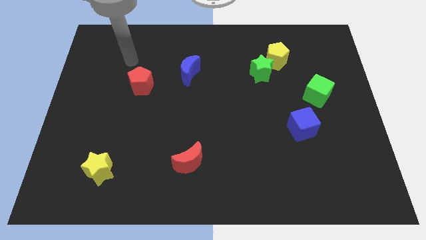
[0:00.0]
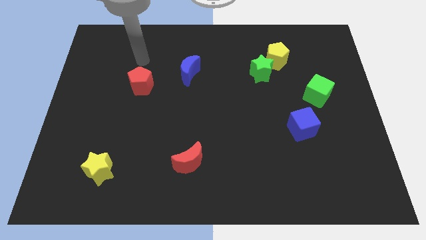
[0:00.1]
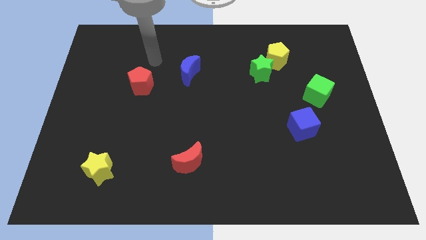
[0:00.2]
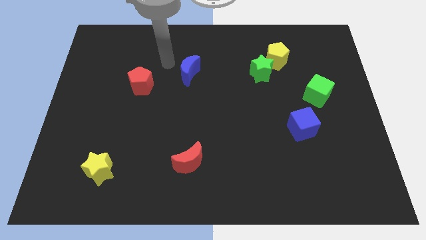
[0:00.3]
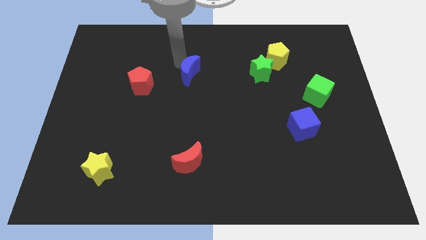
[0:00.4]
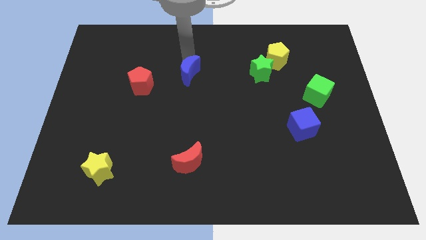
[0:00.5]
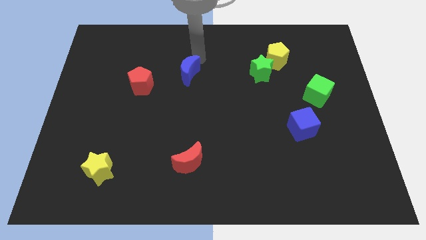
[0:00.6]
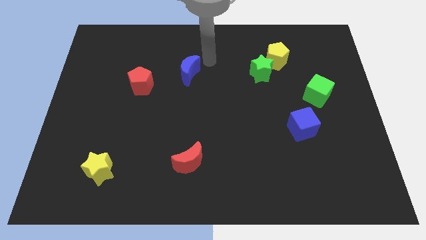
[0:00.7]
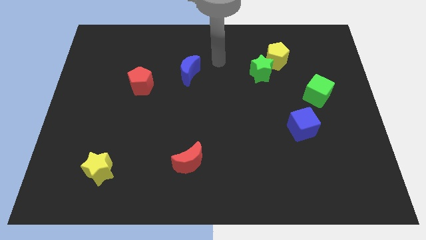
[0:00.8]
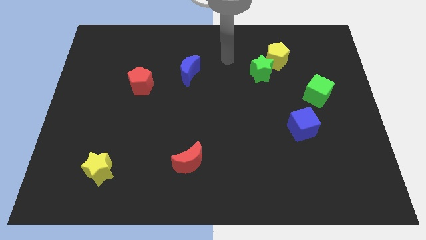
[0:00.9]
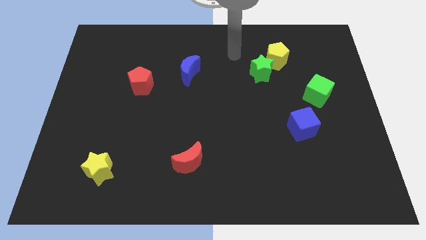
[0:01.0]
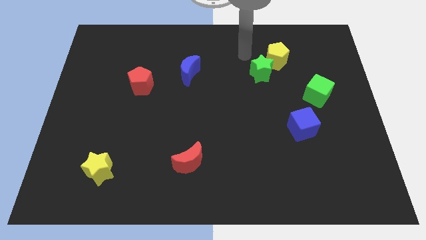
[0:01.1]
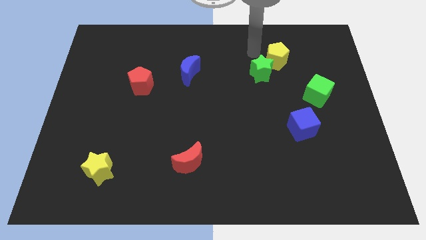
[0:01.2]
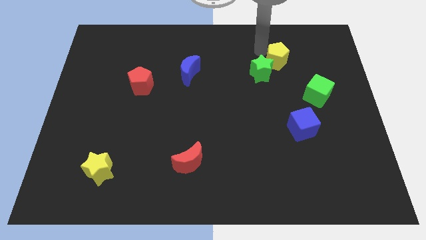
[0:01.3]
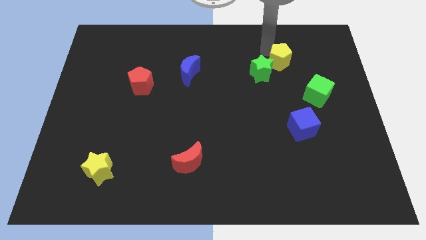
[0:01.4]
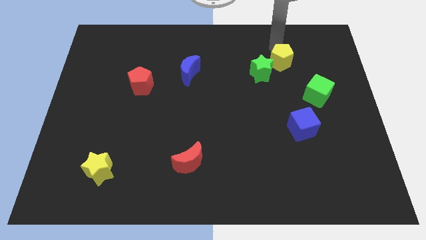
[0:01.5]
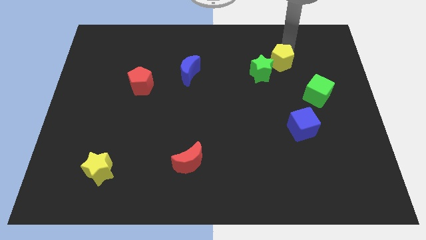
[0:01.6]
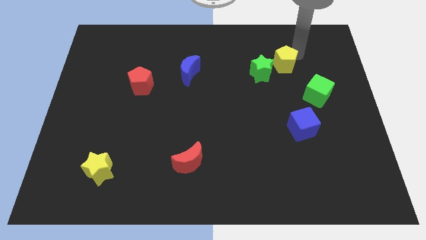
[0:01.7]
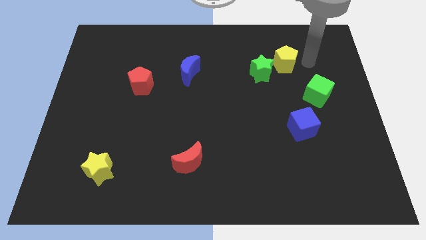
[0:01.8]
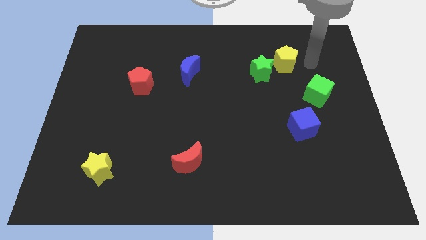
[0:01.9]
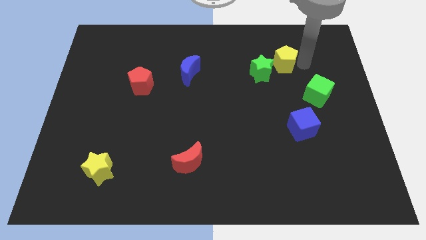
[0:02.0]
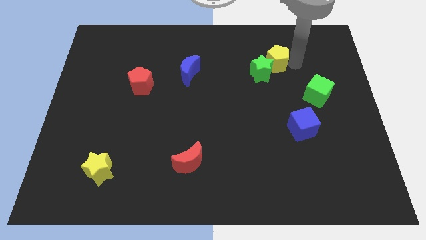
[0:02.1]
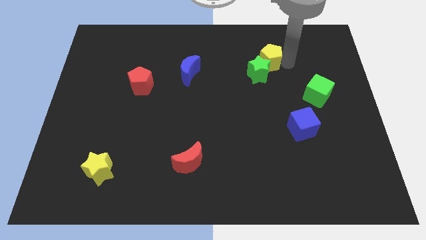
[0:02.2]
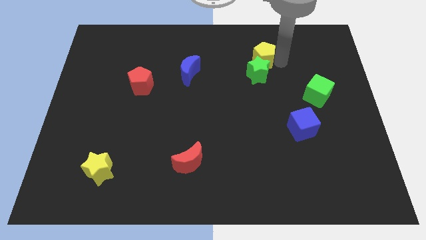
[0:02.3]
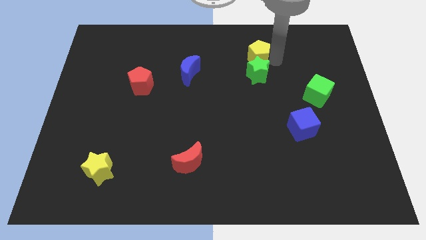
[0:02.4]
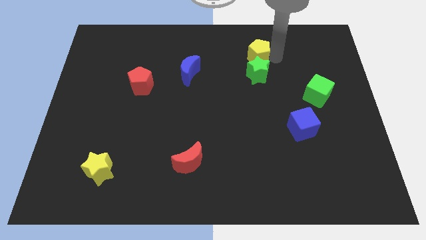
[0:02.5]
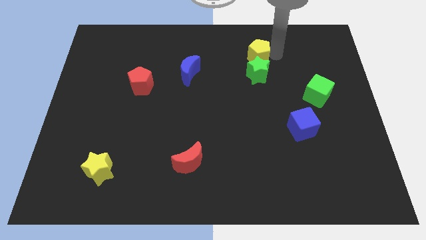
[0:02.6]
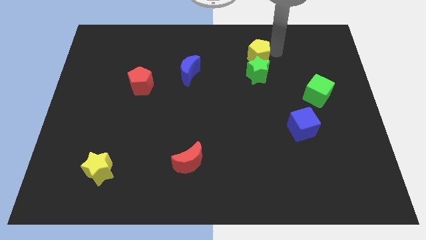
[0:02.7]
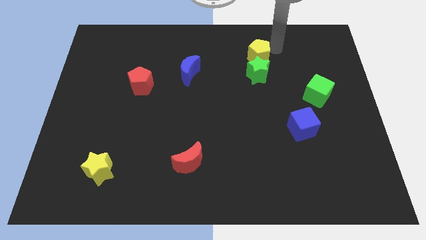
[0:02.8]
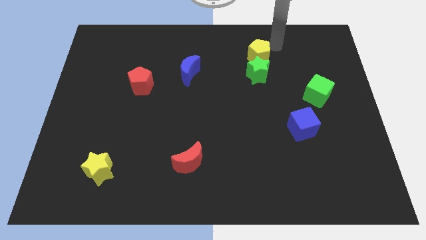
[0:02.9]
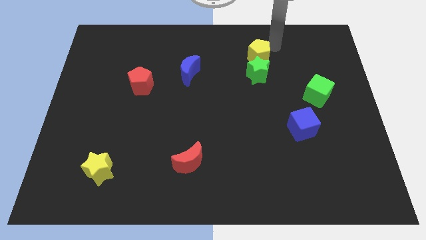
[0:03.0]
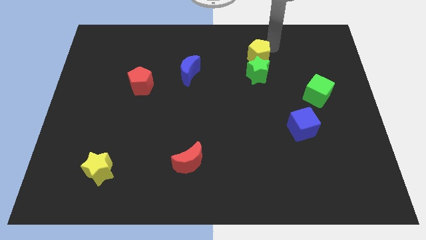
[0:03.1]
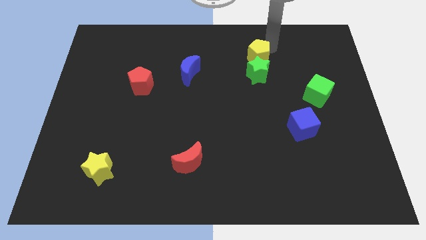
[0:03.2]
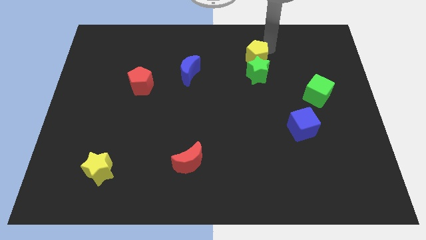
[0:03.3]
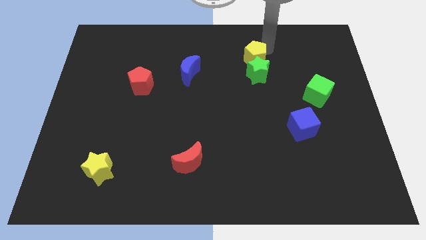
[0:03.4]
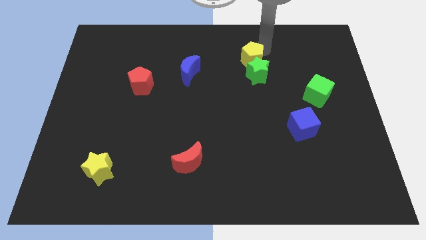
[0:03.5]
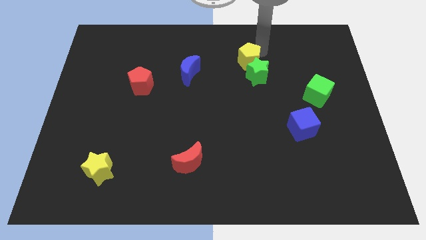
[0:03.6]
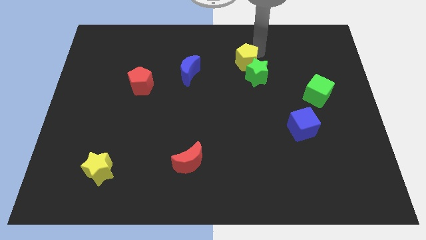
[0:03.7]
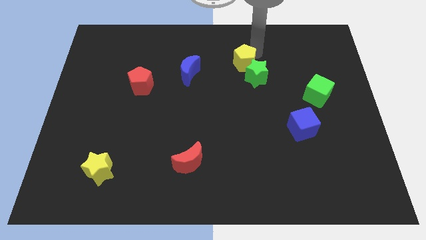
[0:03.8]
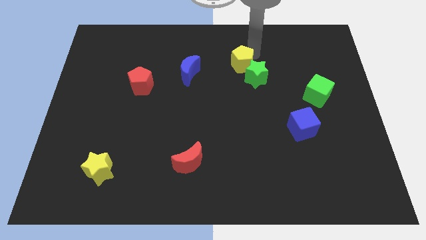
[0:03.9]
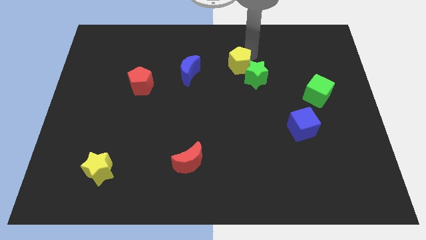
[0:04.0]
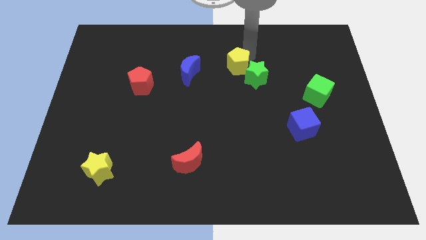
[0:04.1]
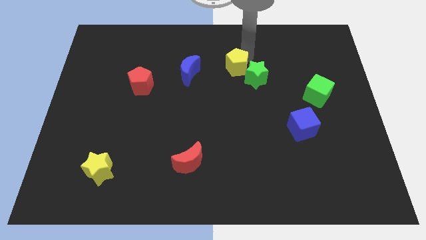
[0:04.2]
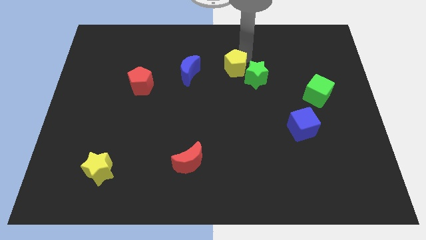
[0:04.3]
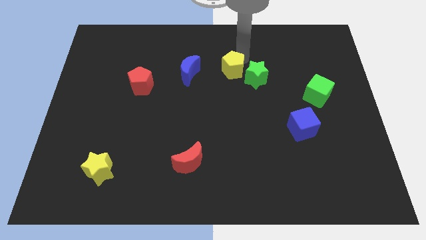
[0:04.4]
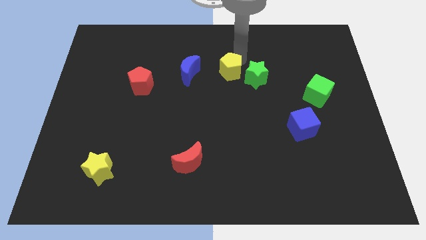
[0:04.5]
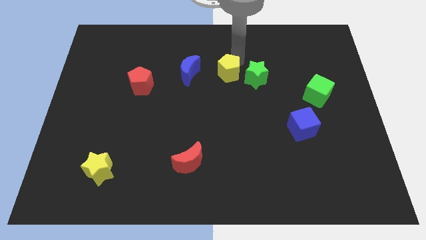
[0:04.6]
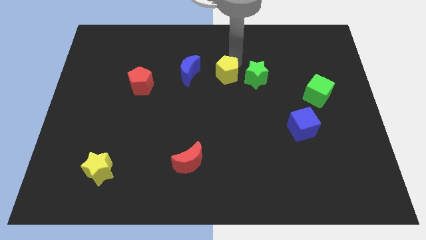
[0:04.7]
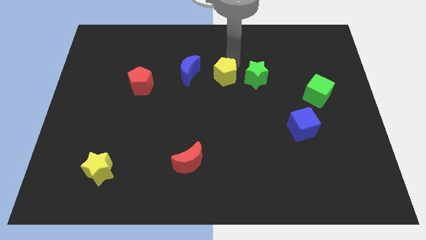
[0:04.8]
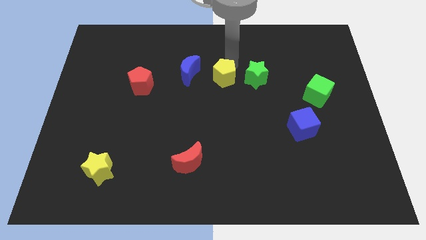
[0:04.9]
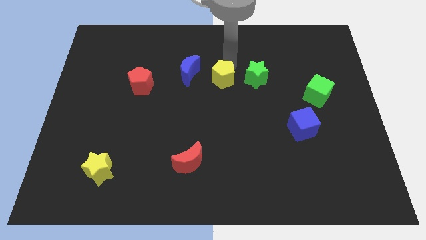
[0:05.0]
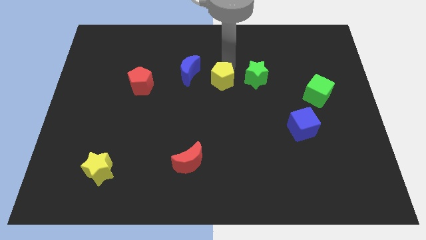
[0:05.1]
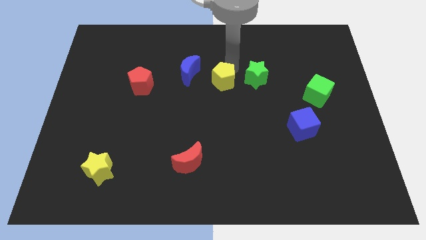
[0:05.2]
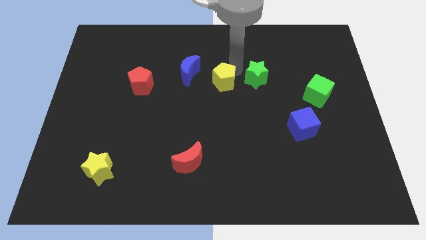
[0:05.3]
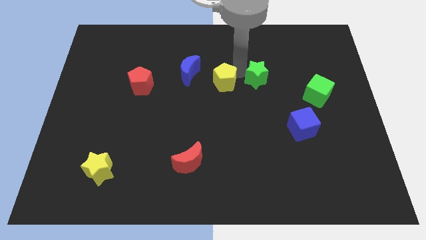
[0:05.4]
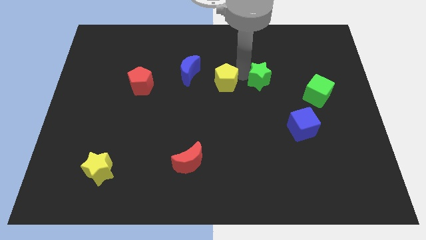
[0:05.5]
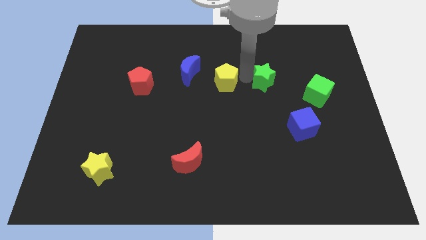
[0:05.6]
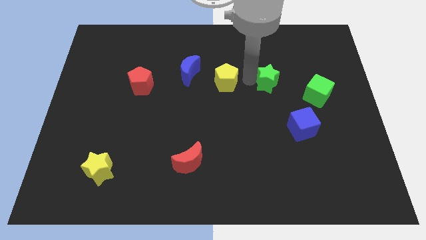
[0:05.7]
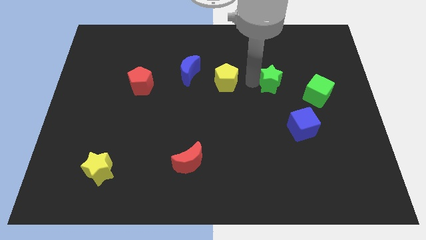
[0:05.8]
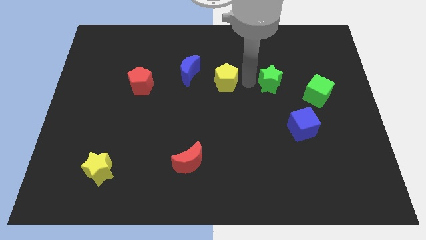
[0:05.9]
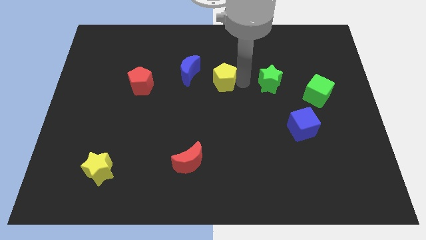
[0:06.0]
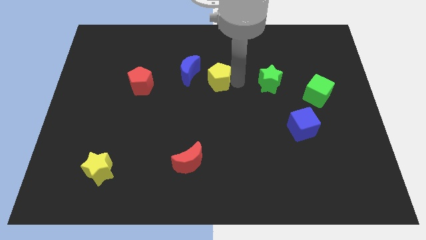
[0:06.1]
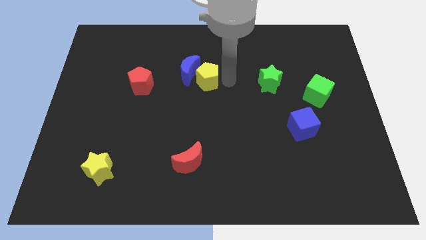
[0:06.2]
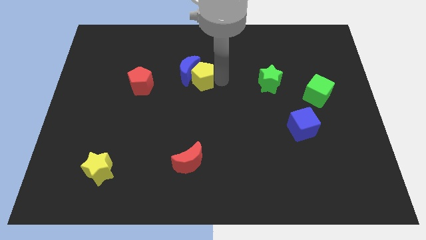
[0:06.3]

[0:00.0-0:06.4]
push the yellow pentagon just right of the red pentagon
